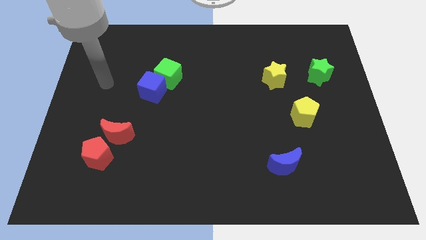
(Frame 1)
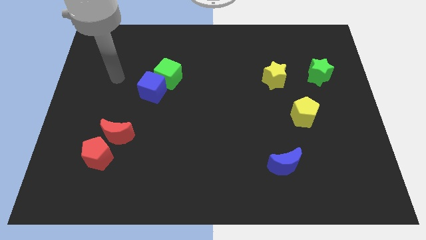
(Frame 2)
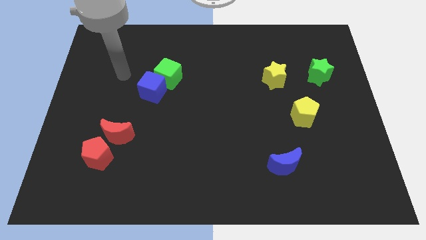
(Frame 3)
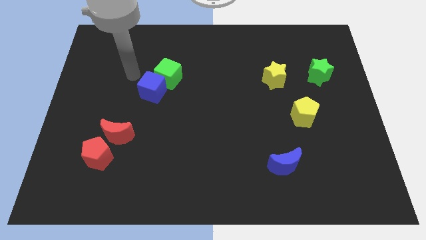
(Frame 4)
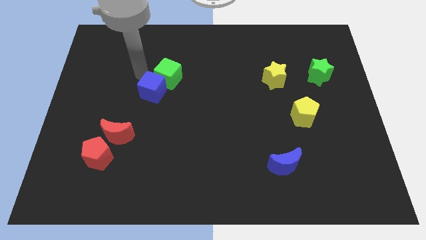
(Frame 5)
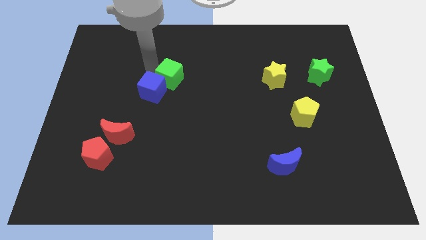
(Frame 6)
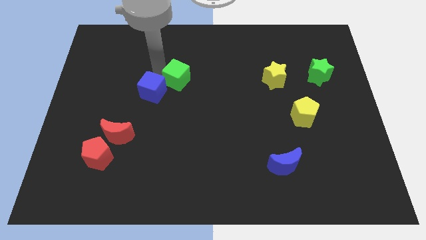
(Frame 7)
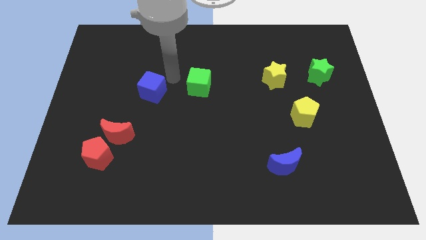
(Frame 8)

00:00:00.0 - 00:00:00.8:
pull the blue cube apart from the green cube

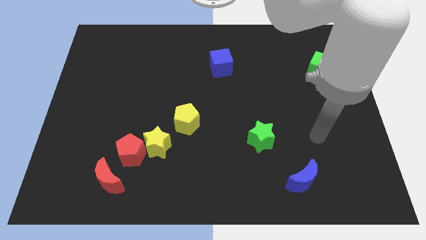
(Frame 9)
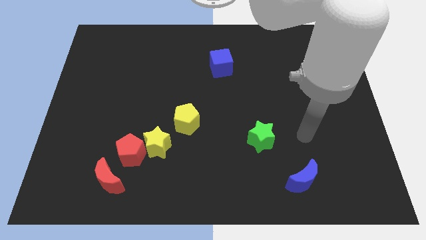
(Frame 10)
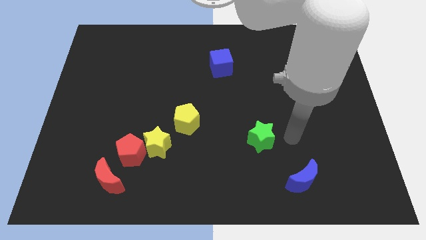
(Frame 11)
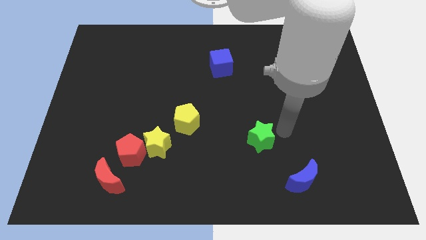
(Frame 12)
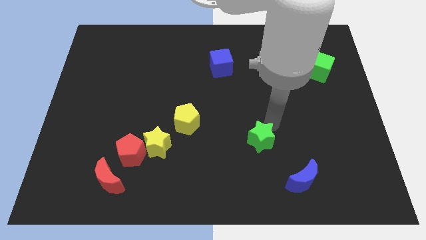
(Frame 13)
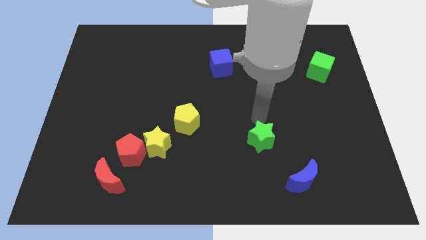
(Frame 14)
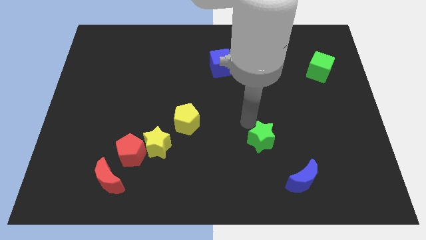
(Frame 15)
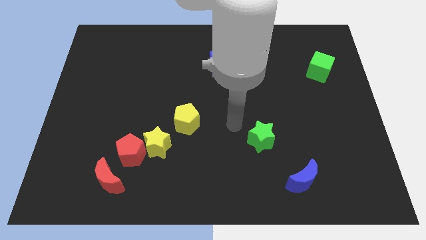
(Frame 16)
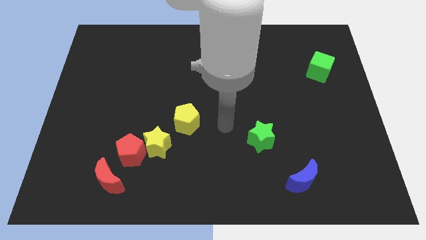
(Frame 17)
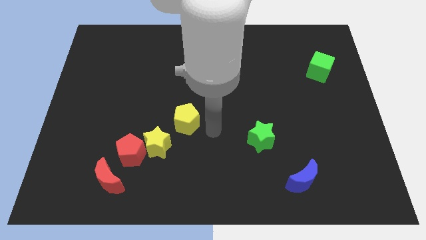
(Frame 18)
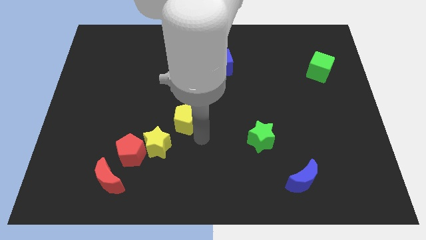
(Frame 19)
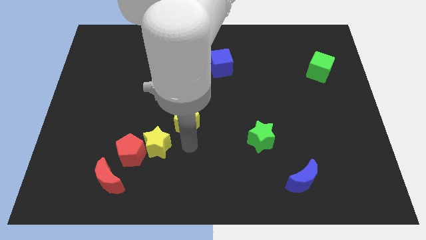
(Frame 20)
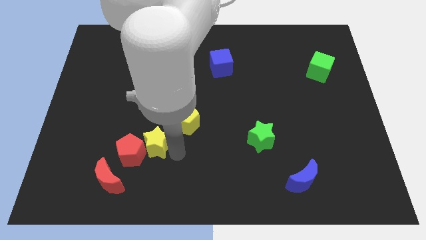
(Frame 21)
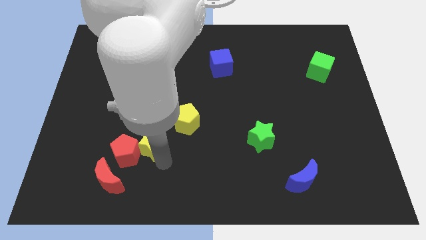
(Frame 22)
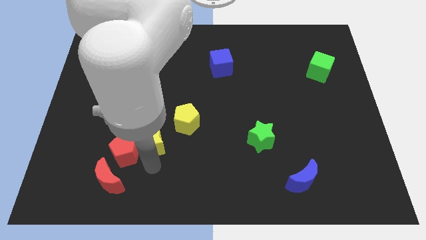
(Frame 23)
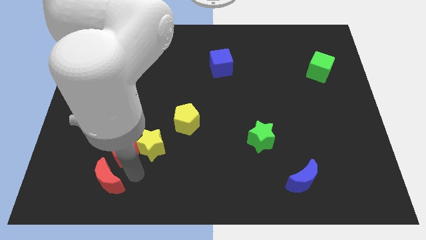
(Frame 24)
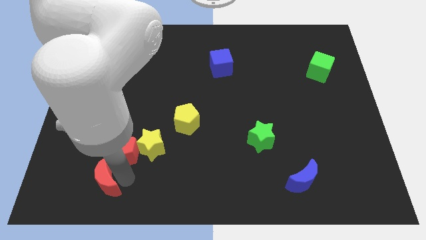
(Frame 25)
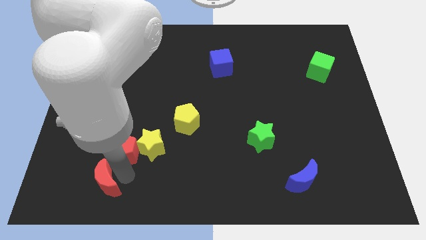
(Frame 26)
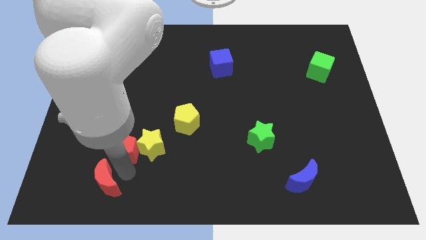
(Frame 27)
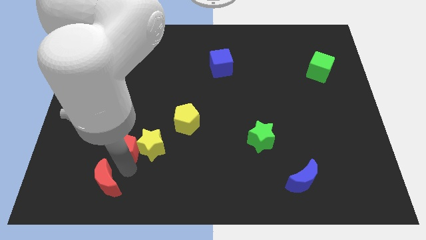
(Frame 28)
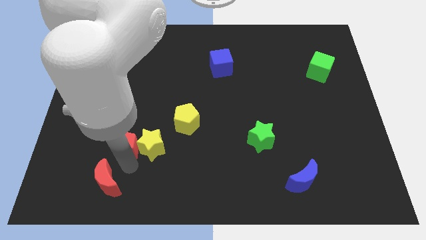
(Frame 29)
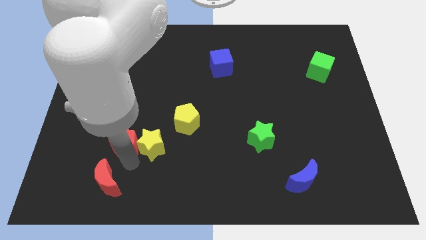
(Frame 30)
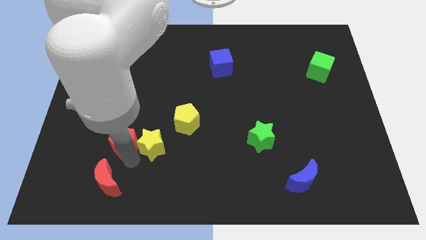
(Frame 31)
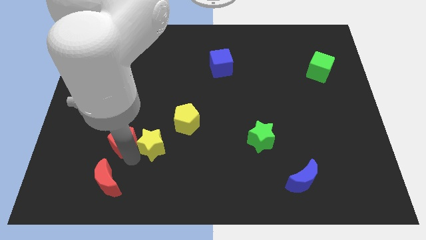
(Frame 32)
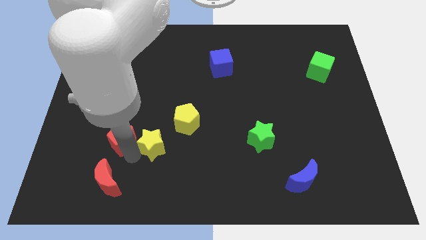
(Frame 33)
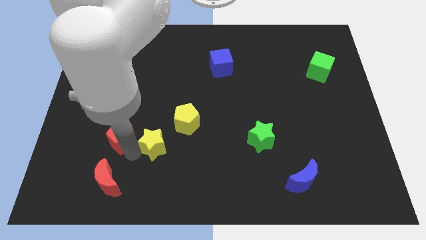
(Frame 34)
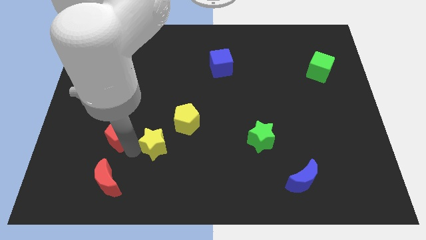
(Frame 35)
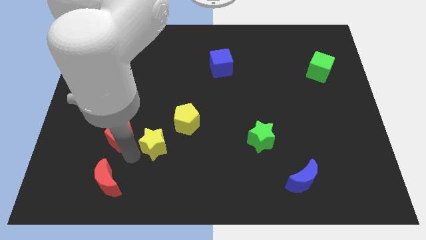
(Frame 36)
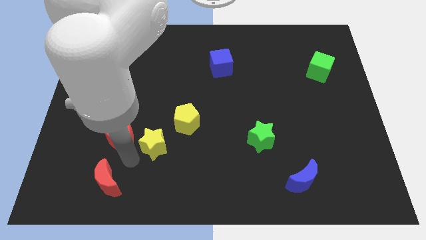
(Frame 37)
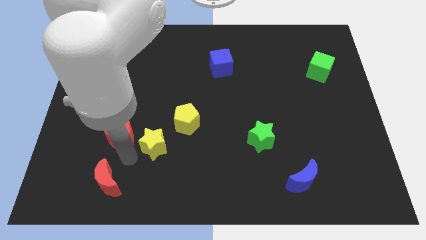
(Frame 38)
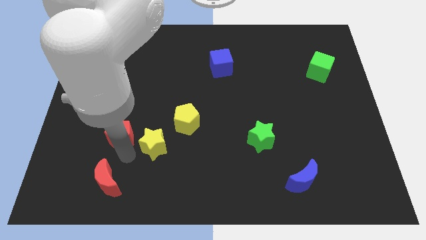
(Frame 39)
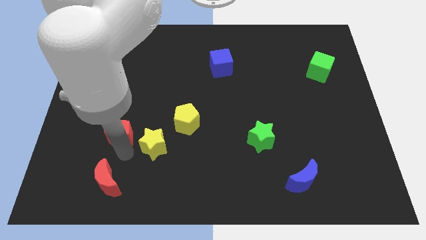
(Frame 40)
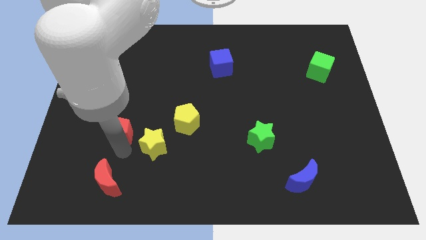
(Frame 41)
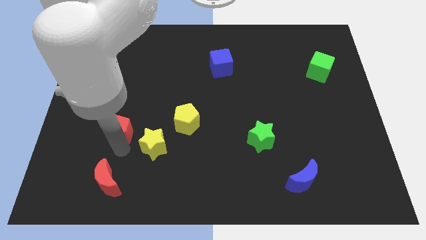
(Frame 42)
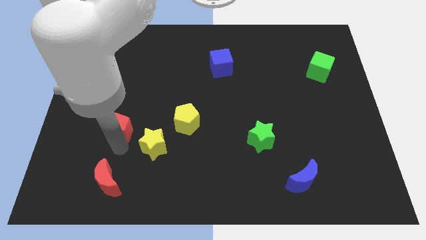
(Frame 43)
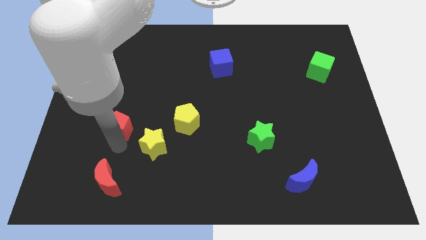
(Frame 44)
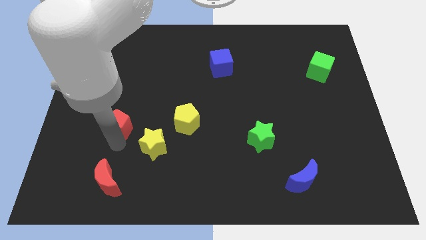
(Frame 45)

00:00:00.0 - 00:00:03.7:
separate the red pentagon from the yellow star and red moon

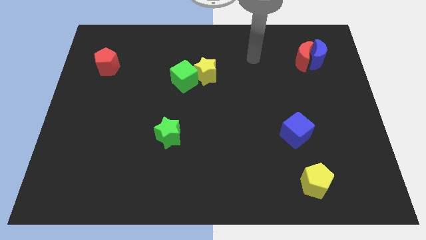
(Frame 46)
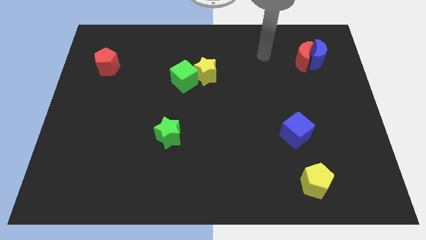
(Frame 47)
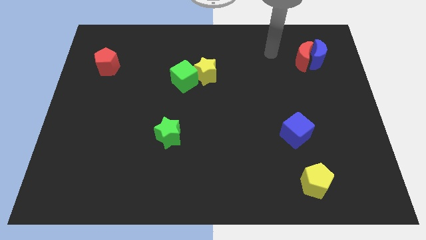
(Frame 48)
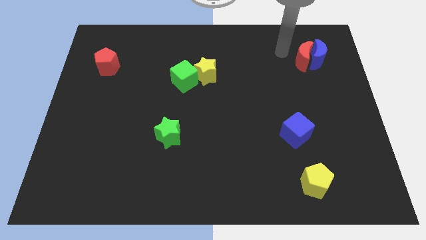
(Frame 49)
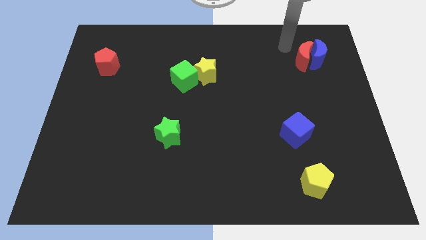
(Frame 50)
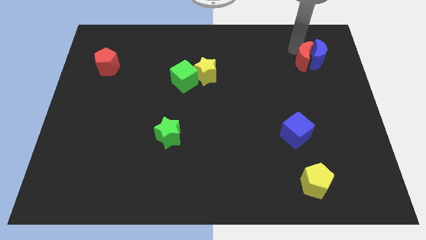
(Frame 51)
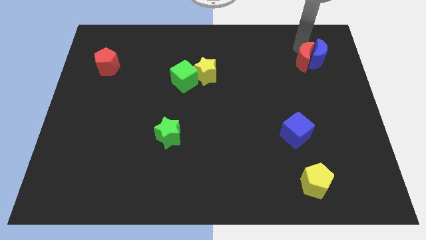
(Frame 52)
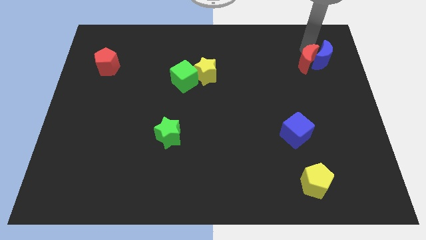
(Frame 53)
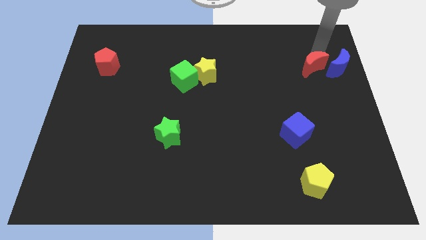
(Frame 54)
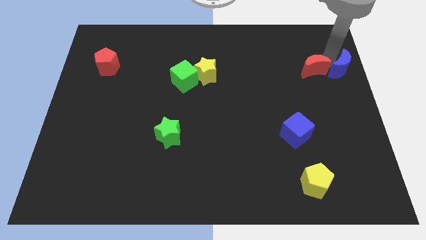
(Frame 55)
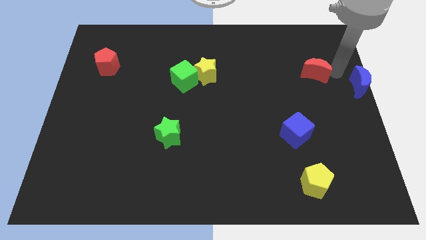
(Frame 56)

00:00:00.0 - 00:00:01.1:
separate the red moon from the blue moon

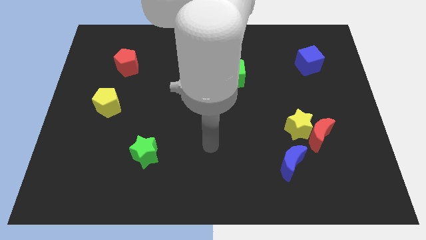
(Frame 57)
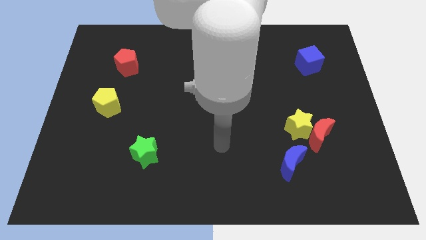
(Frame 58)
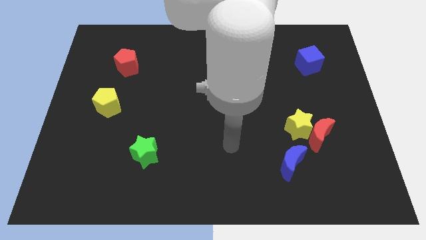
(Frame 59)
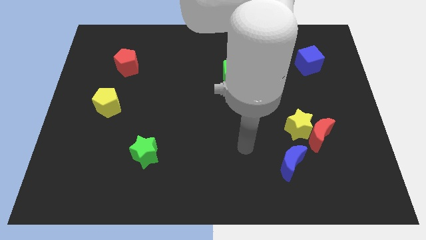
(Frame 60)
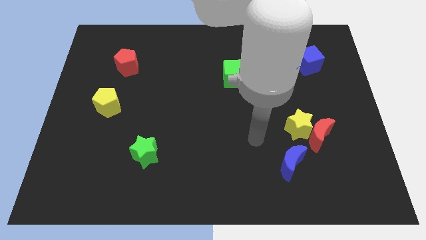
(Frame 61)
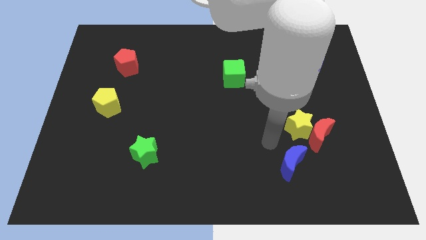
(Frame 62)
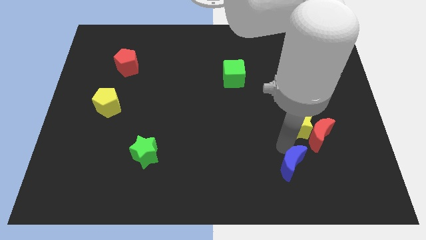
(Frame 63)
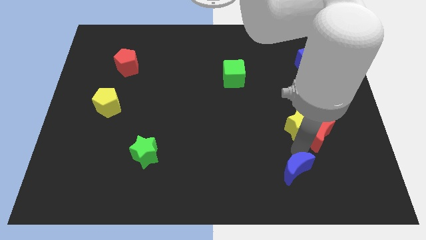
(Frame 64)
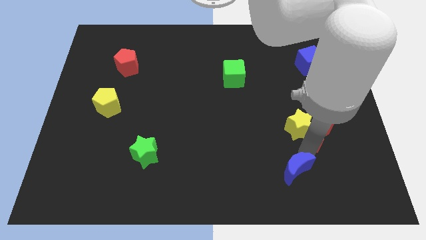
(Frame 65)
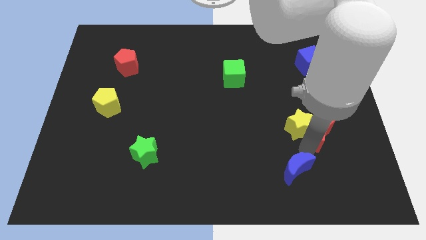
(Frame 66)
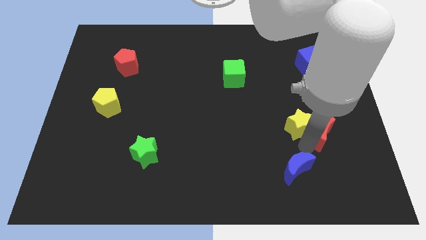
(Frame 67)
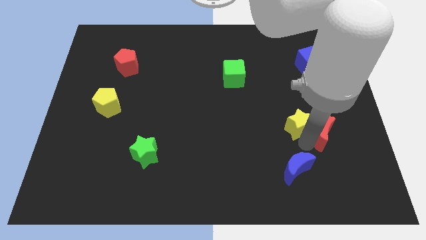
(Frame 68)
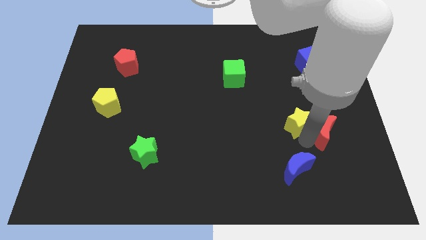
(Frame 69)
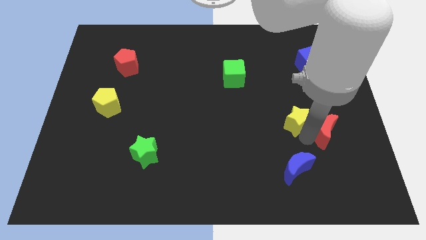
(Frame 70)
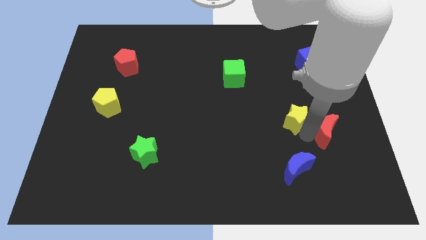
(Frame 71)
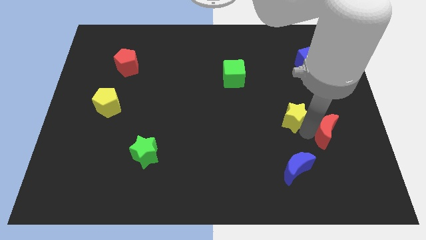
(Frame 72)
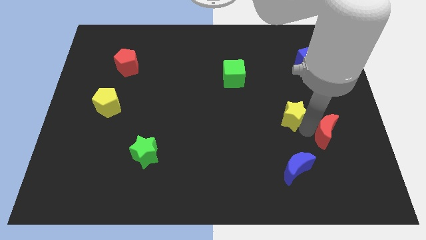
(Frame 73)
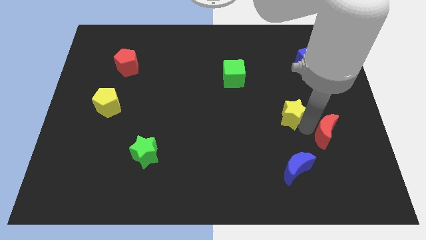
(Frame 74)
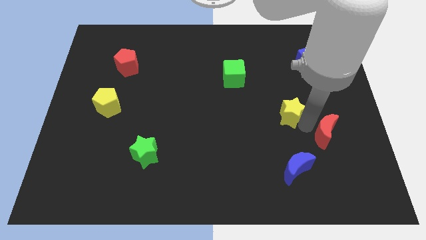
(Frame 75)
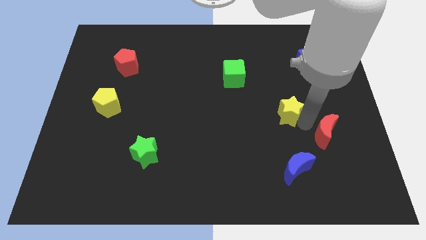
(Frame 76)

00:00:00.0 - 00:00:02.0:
move the yellow star away from the red moon and blue moon

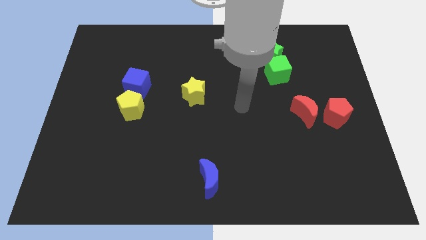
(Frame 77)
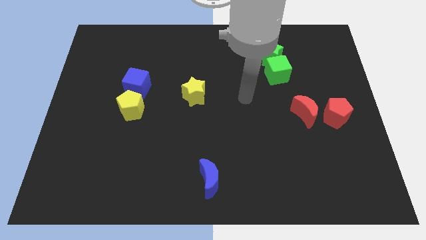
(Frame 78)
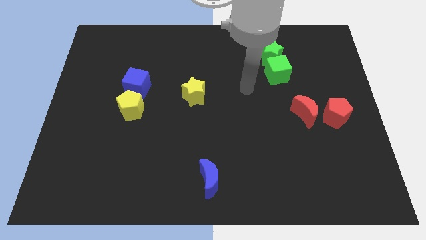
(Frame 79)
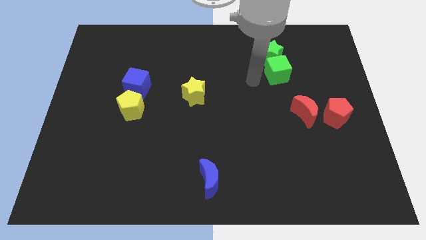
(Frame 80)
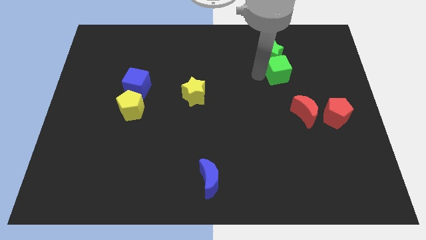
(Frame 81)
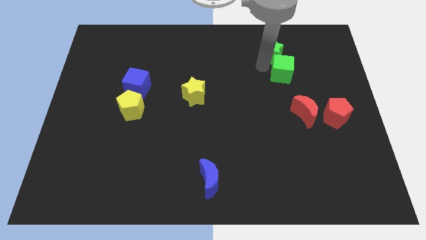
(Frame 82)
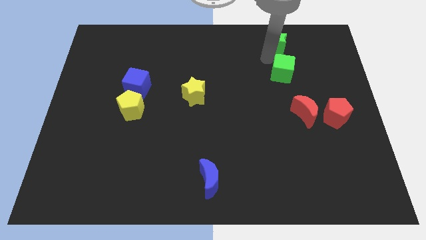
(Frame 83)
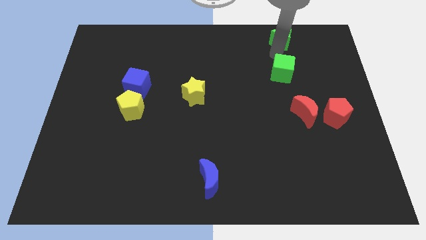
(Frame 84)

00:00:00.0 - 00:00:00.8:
move the green cube away from the green star

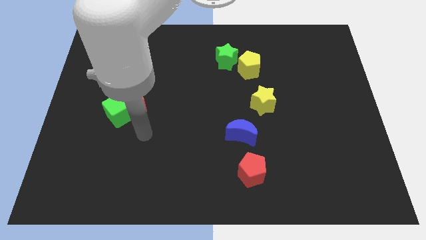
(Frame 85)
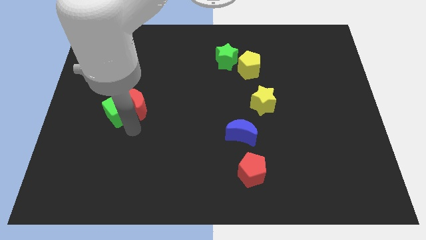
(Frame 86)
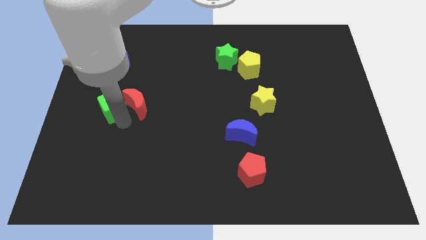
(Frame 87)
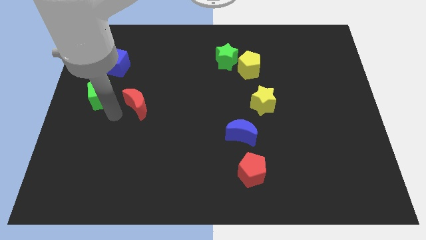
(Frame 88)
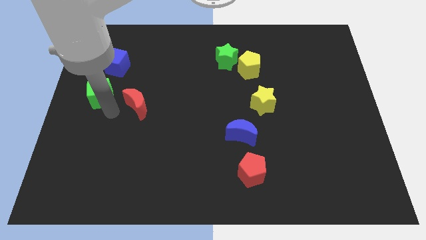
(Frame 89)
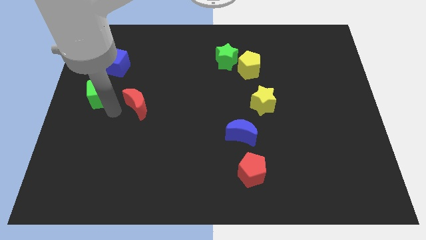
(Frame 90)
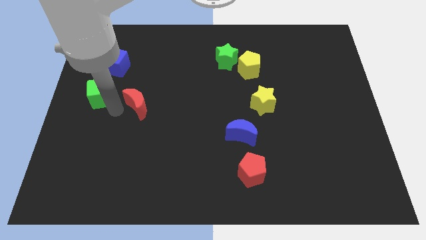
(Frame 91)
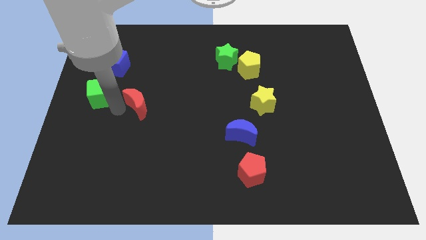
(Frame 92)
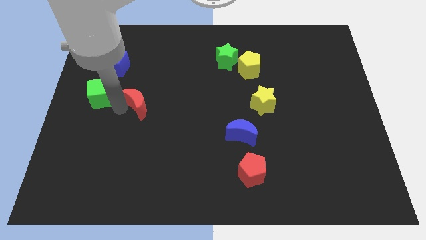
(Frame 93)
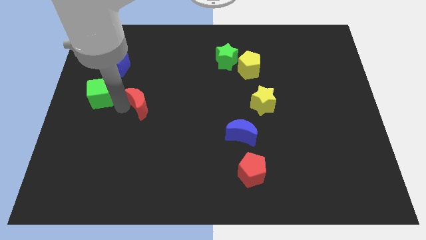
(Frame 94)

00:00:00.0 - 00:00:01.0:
move the red moon away from the green cube

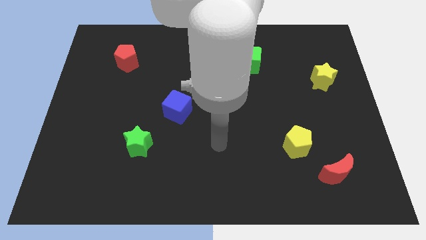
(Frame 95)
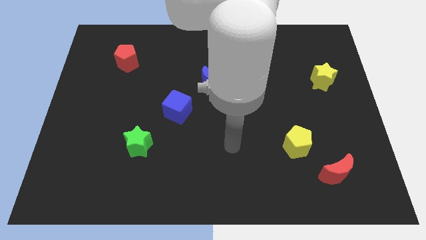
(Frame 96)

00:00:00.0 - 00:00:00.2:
separate the red moon from the yellow pentagon
